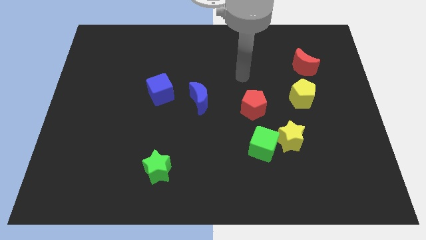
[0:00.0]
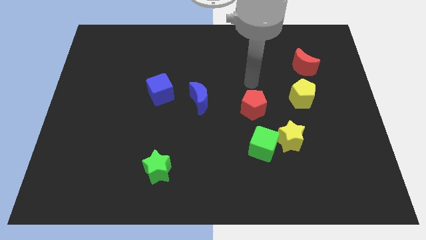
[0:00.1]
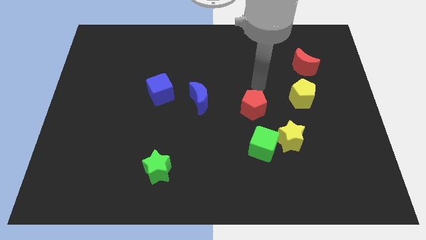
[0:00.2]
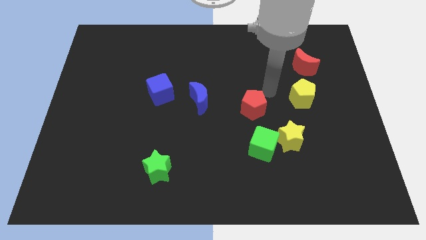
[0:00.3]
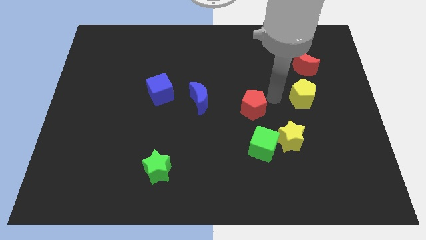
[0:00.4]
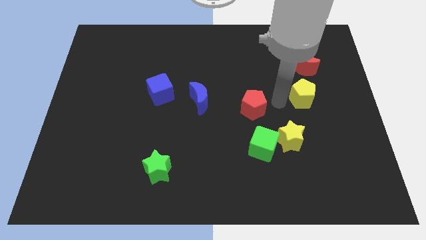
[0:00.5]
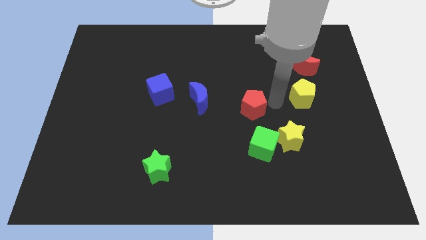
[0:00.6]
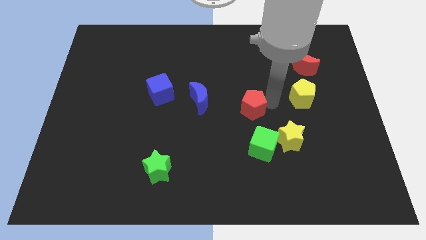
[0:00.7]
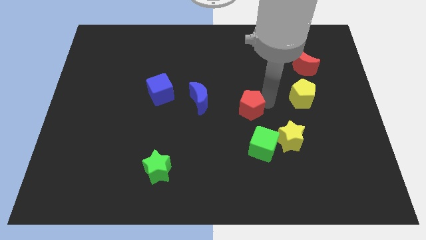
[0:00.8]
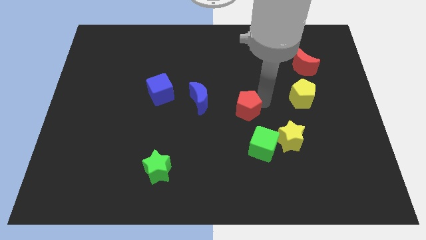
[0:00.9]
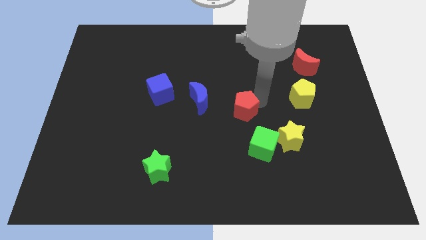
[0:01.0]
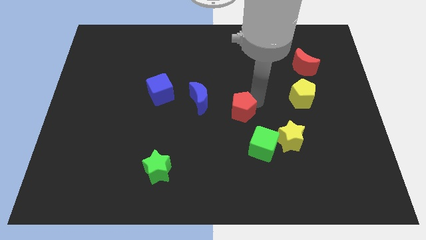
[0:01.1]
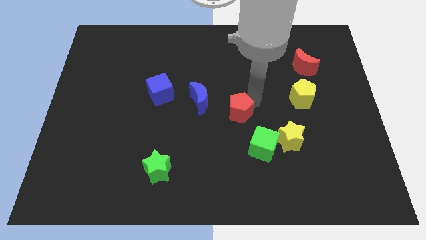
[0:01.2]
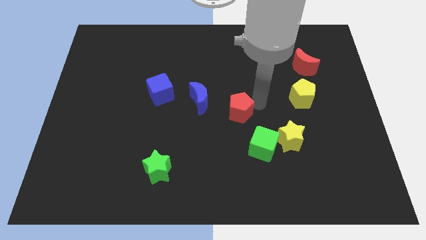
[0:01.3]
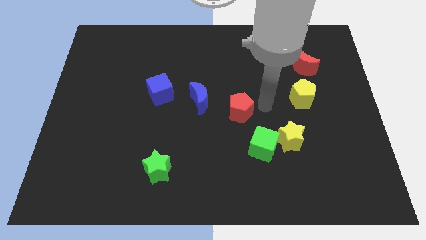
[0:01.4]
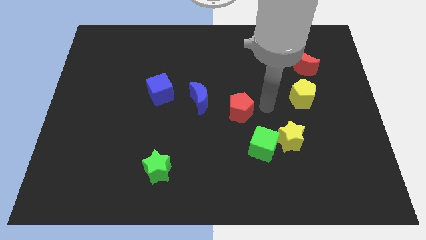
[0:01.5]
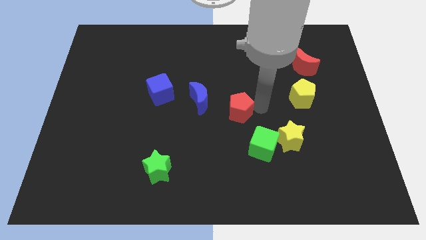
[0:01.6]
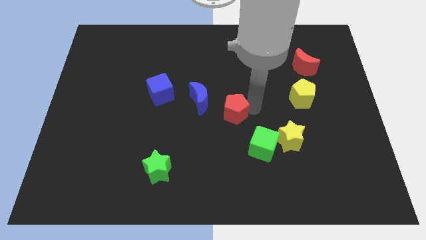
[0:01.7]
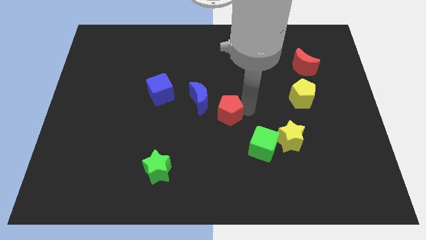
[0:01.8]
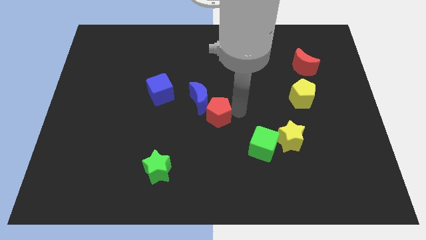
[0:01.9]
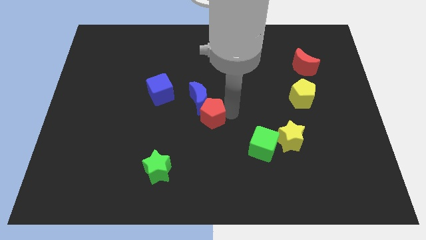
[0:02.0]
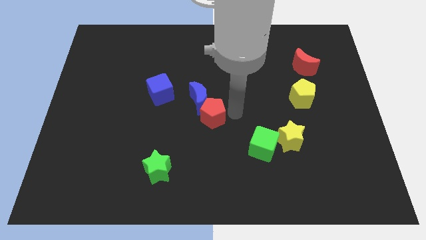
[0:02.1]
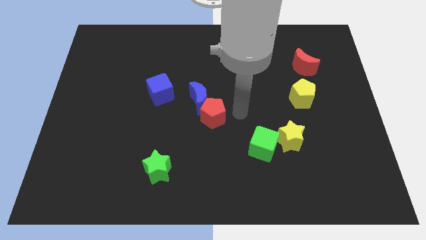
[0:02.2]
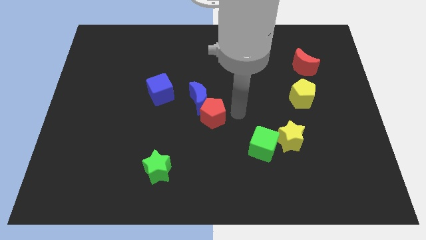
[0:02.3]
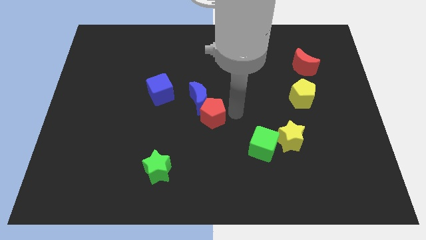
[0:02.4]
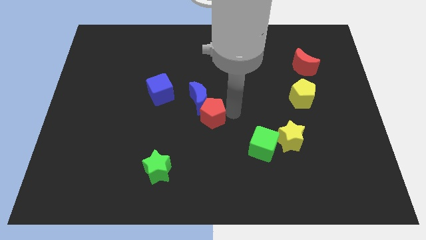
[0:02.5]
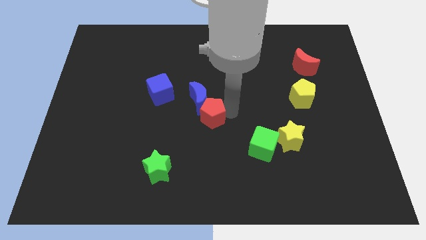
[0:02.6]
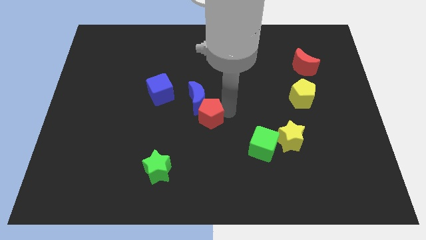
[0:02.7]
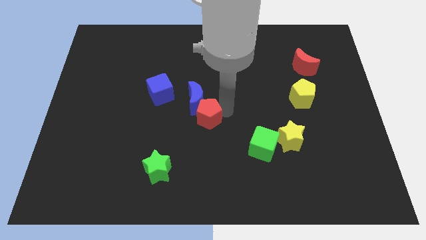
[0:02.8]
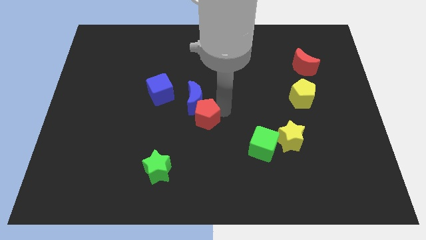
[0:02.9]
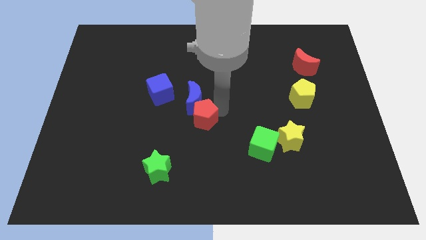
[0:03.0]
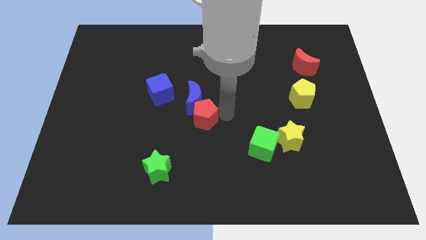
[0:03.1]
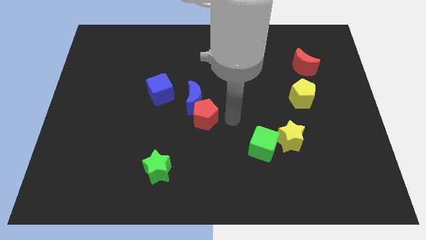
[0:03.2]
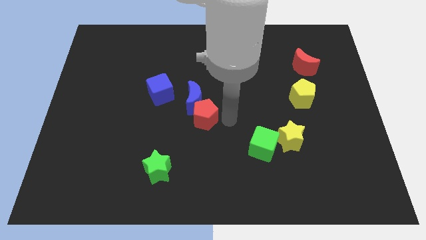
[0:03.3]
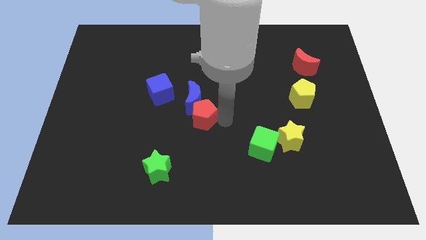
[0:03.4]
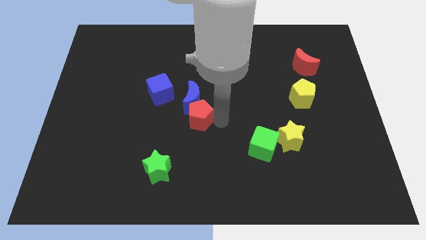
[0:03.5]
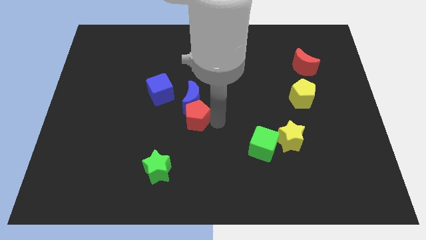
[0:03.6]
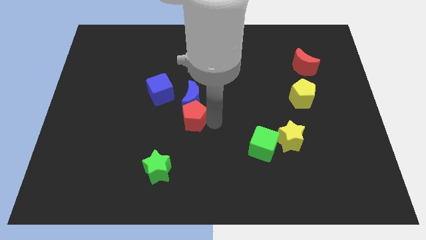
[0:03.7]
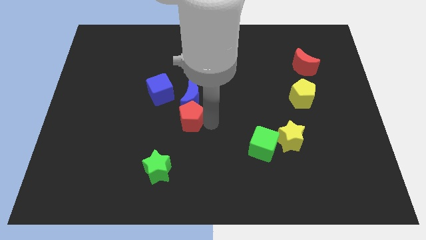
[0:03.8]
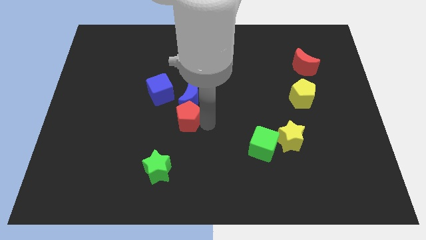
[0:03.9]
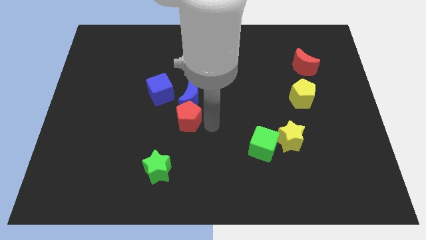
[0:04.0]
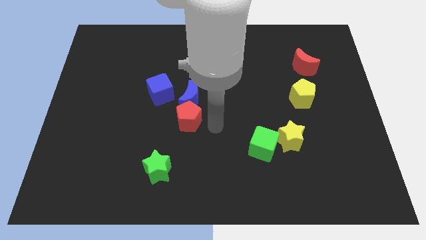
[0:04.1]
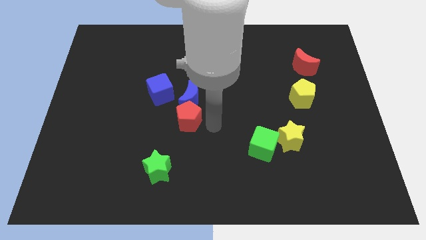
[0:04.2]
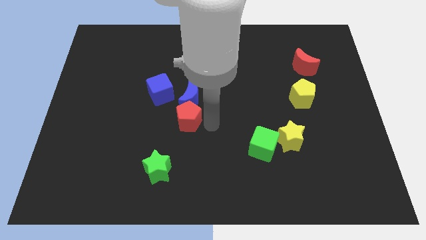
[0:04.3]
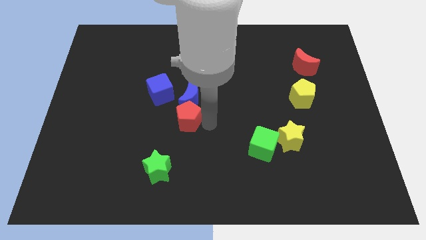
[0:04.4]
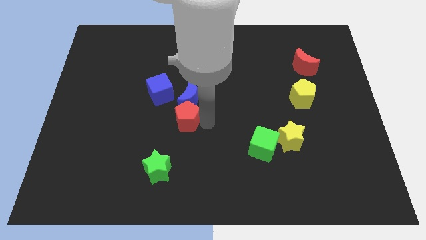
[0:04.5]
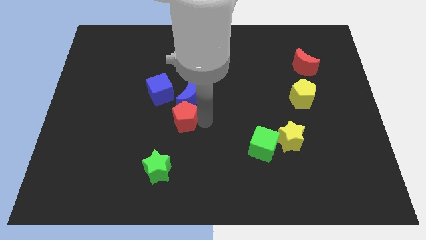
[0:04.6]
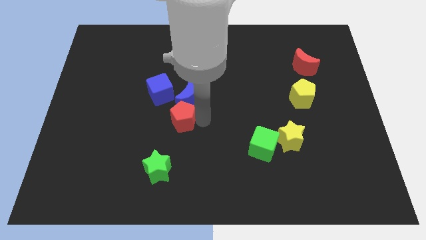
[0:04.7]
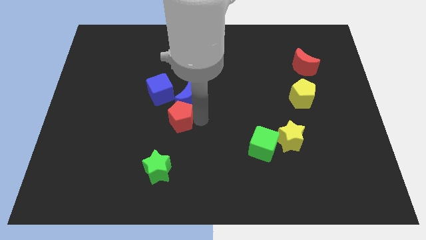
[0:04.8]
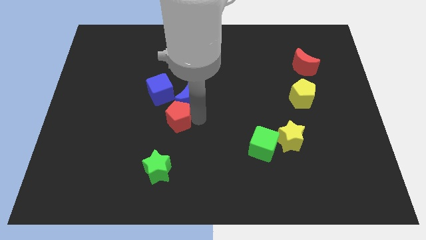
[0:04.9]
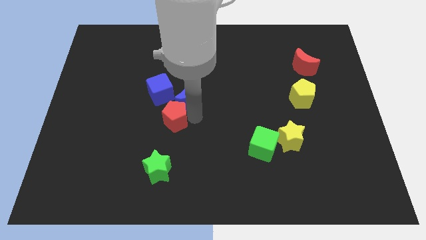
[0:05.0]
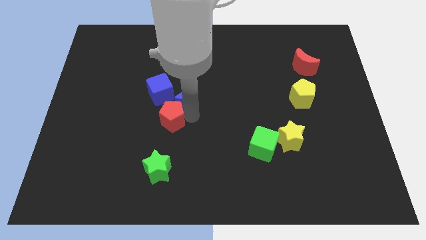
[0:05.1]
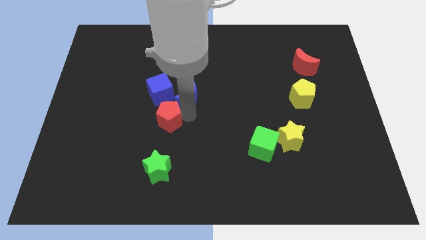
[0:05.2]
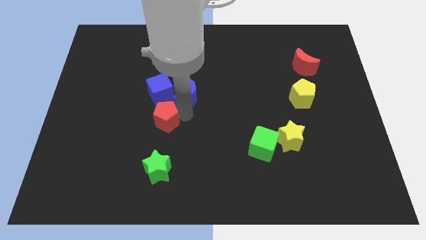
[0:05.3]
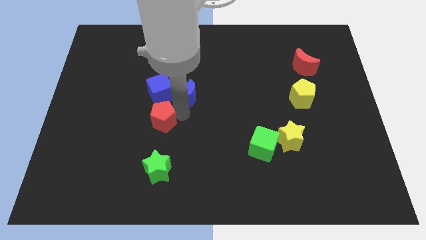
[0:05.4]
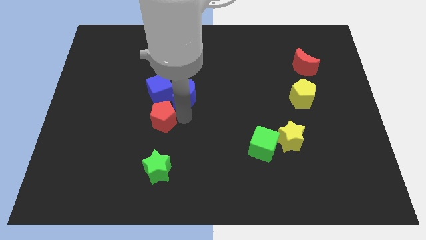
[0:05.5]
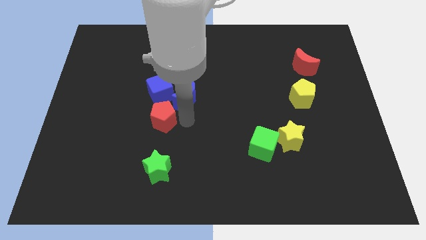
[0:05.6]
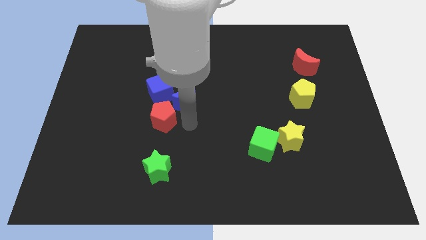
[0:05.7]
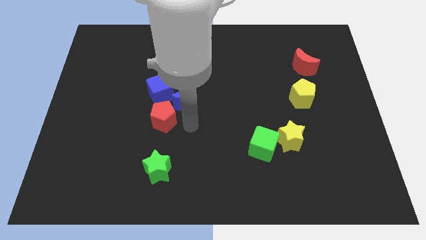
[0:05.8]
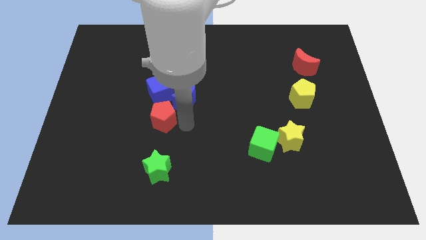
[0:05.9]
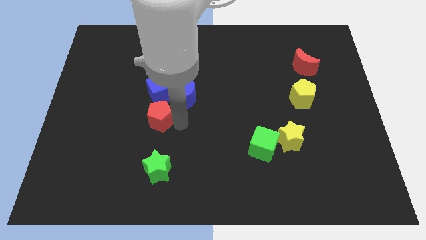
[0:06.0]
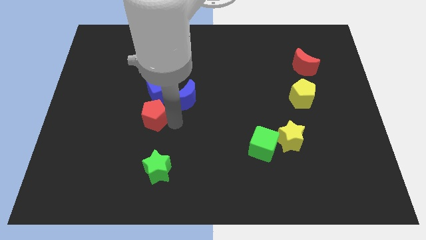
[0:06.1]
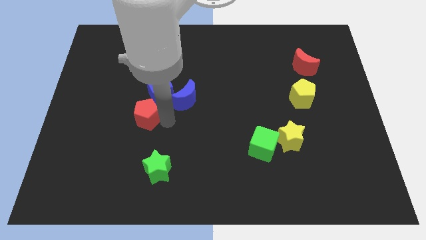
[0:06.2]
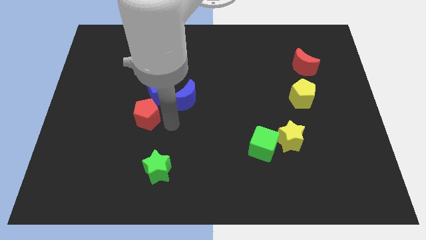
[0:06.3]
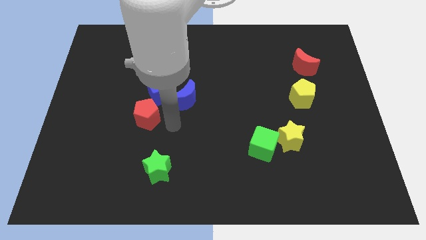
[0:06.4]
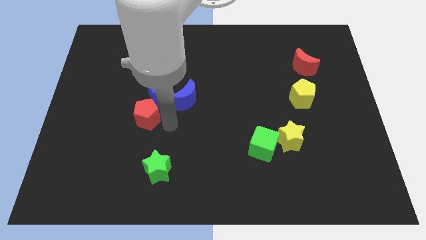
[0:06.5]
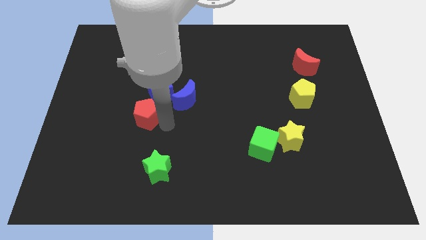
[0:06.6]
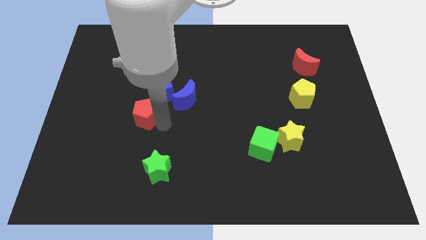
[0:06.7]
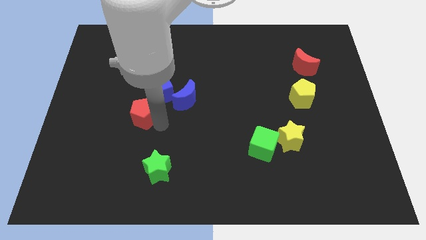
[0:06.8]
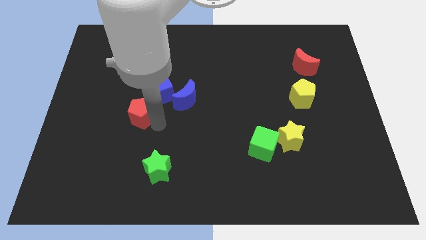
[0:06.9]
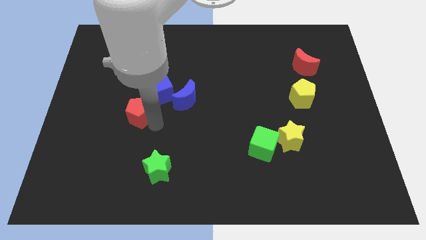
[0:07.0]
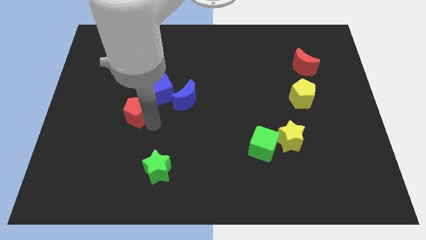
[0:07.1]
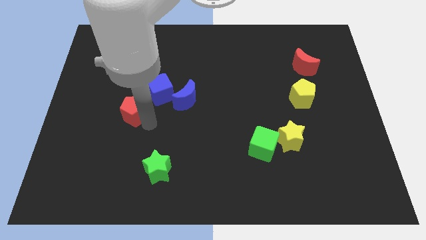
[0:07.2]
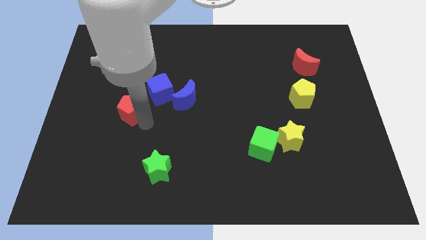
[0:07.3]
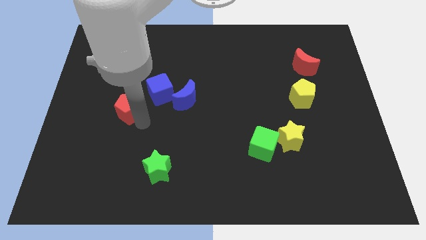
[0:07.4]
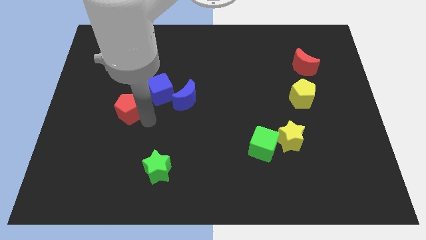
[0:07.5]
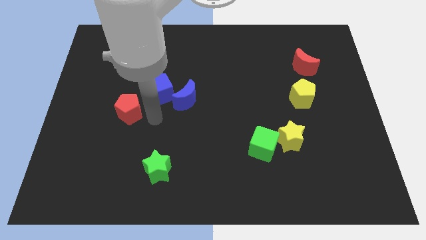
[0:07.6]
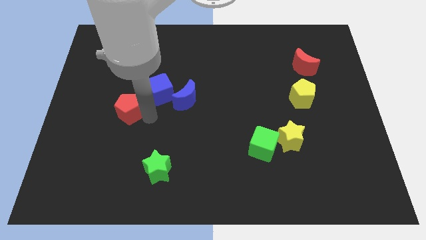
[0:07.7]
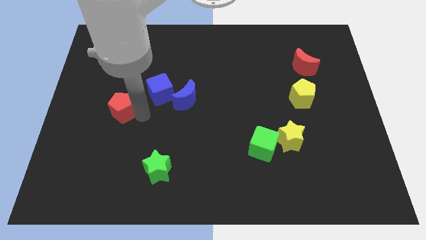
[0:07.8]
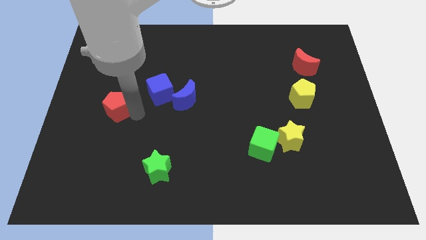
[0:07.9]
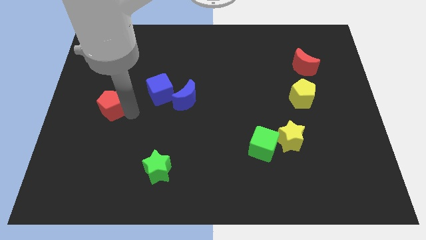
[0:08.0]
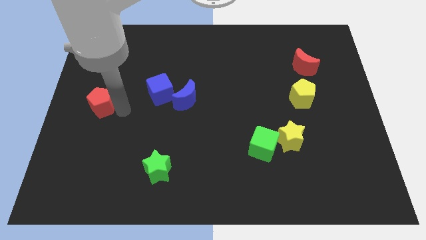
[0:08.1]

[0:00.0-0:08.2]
put the red pentagon to the left side of the board
